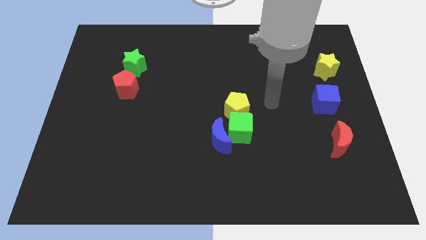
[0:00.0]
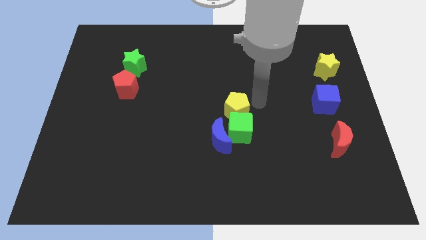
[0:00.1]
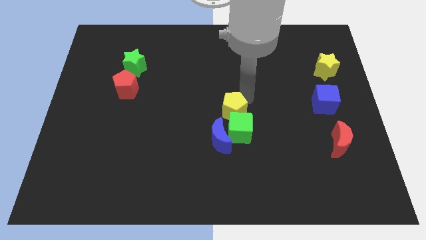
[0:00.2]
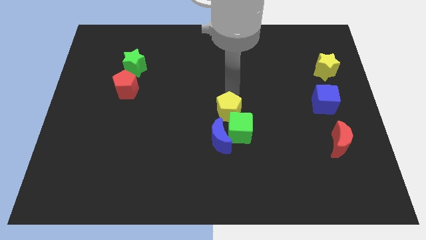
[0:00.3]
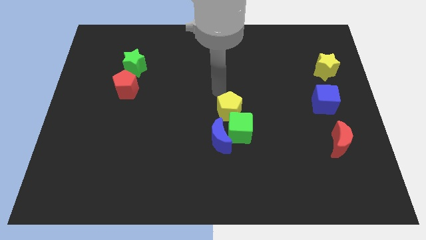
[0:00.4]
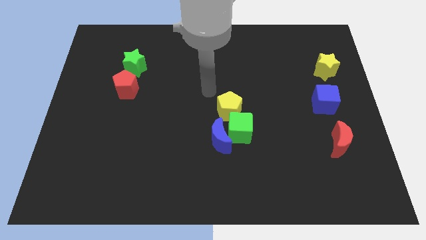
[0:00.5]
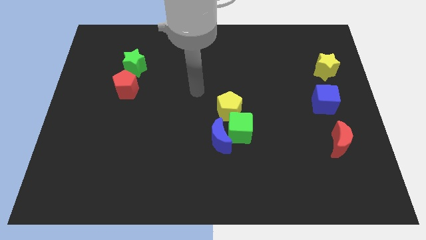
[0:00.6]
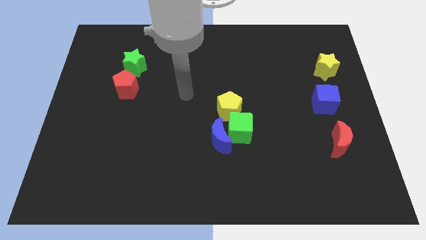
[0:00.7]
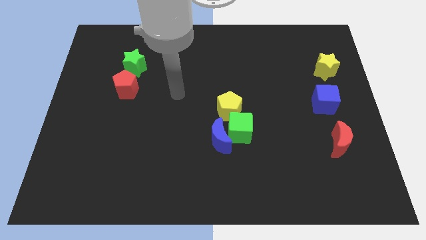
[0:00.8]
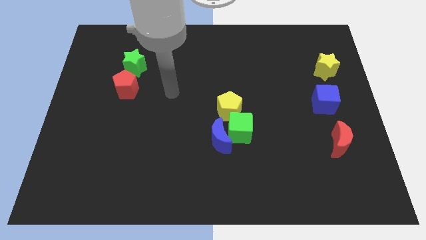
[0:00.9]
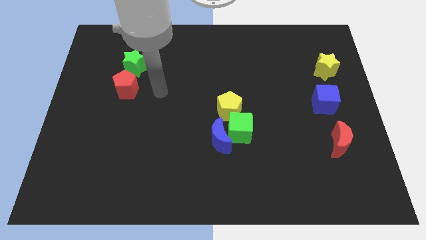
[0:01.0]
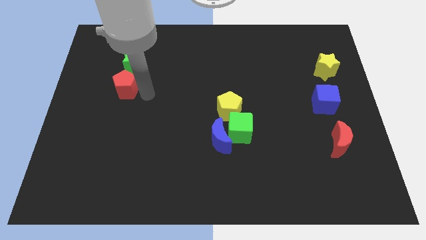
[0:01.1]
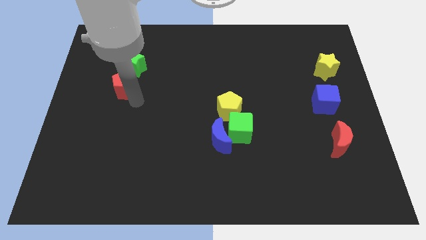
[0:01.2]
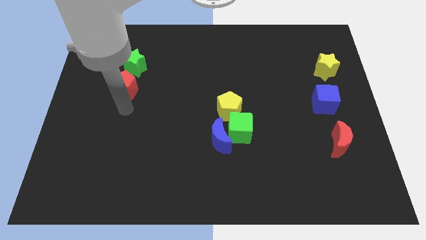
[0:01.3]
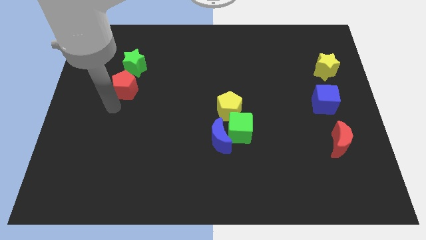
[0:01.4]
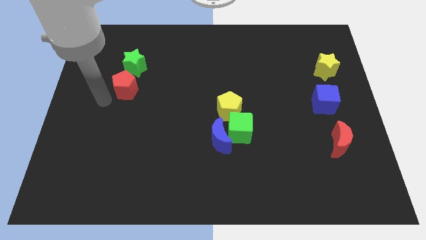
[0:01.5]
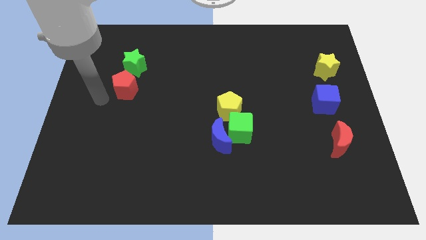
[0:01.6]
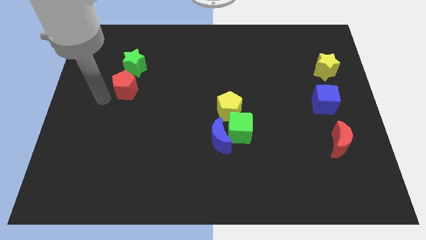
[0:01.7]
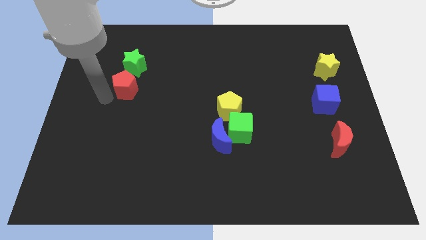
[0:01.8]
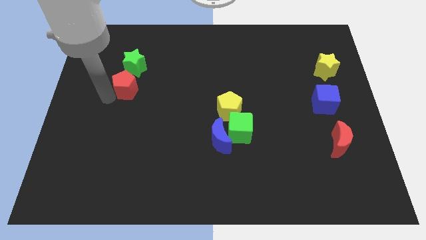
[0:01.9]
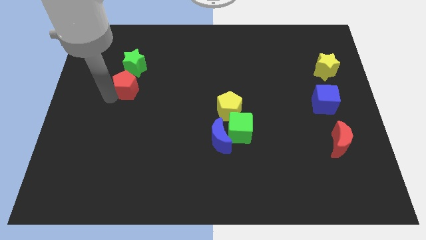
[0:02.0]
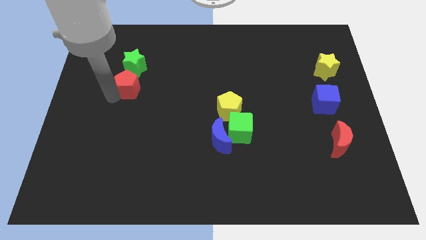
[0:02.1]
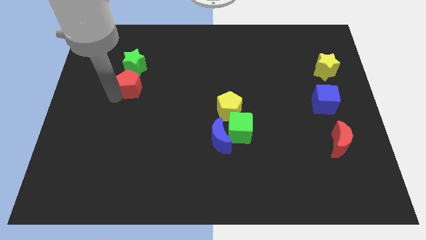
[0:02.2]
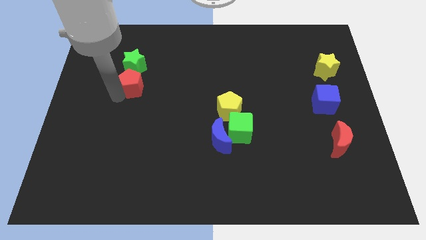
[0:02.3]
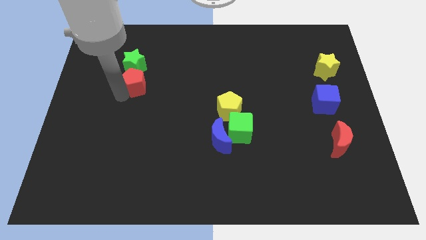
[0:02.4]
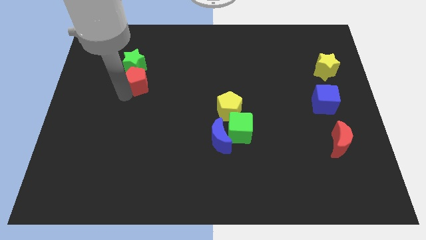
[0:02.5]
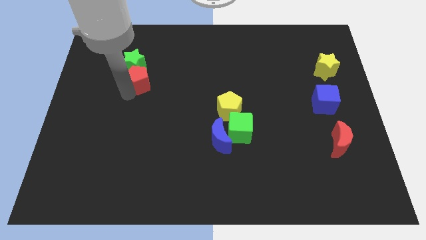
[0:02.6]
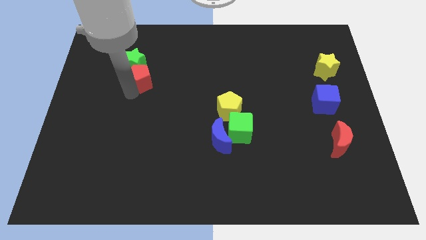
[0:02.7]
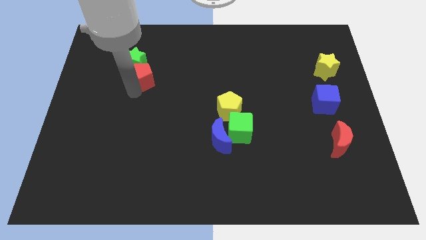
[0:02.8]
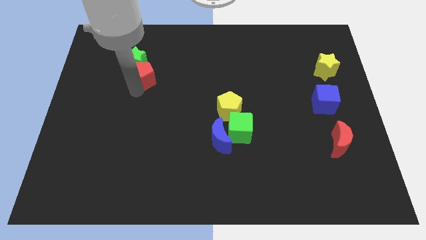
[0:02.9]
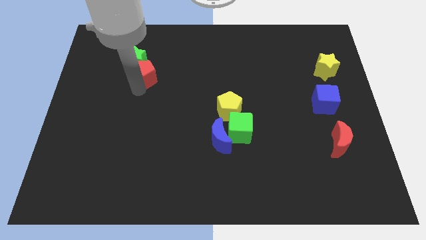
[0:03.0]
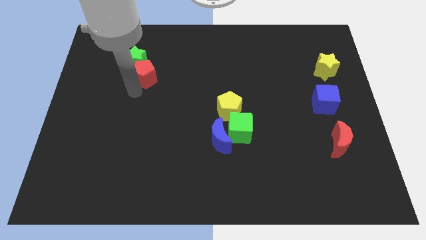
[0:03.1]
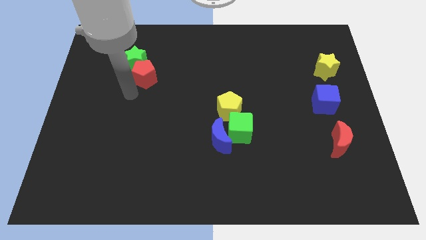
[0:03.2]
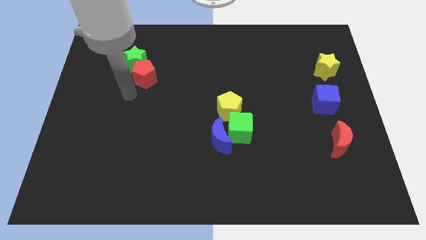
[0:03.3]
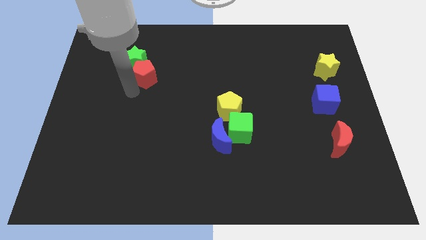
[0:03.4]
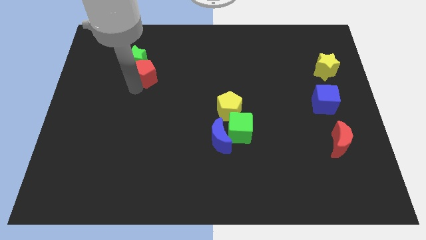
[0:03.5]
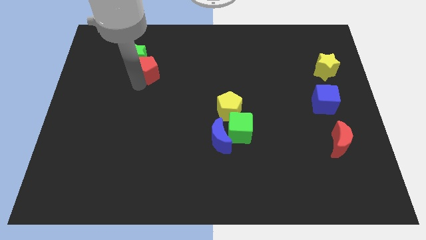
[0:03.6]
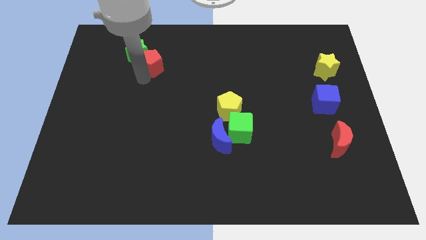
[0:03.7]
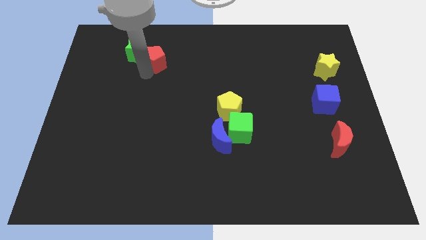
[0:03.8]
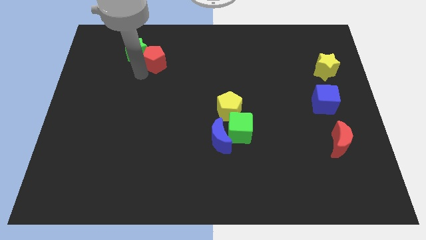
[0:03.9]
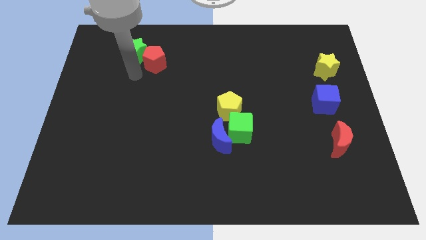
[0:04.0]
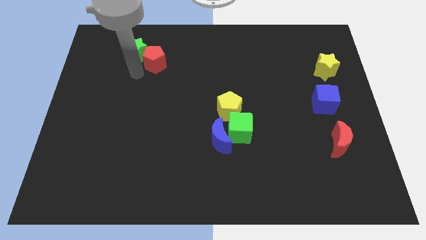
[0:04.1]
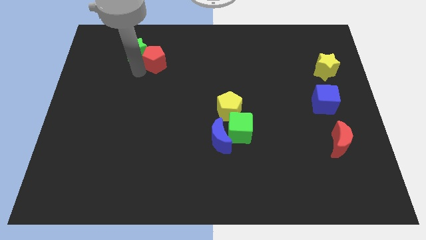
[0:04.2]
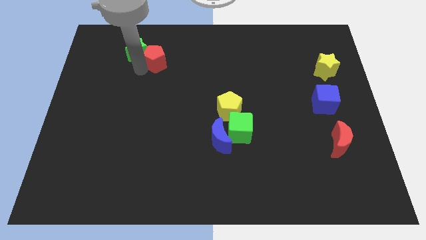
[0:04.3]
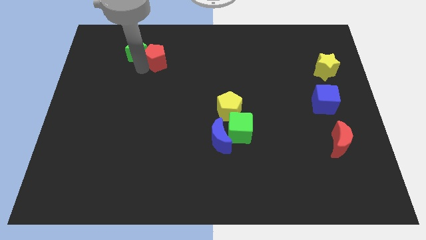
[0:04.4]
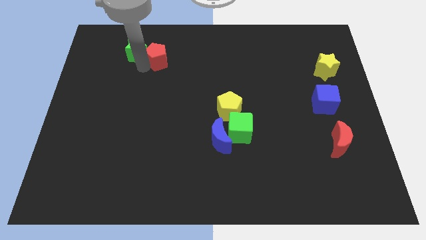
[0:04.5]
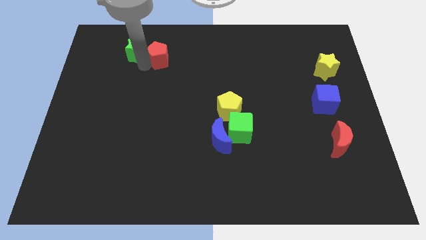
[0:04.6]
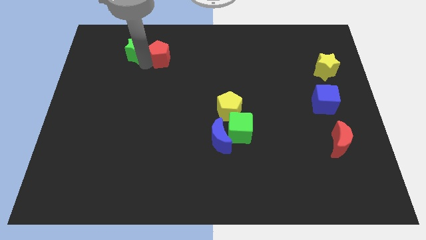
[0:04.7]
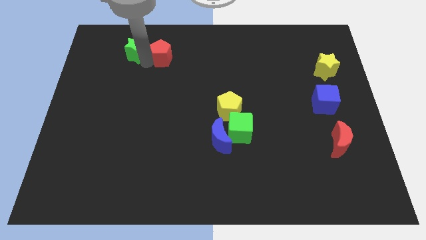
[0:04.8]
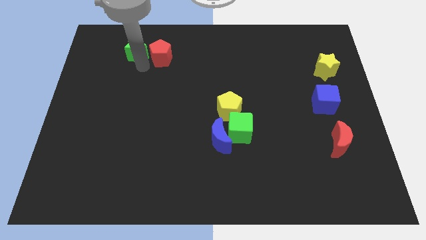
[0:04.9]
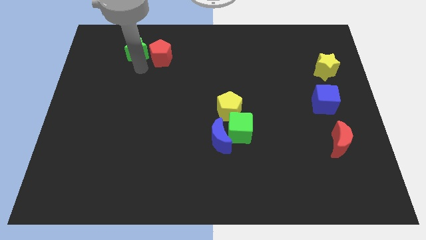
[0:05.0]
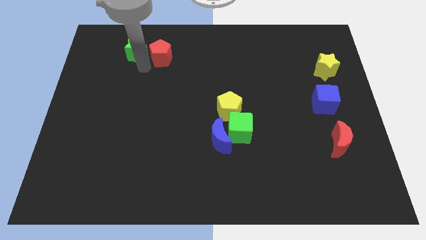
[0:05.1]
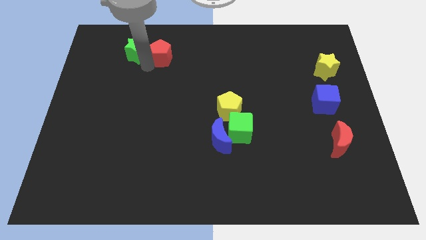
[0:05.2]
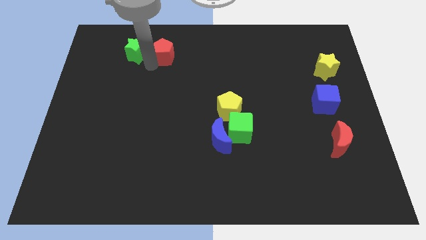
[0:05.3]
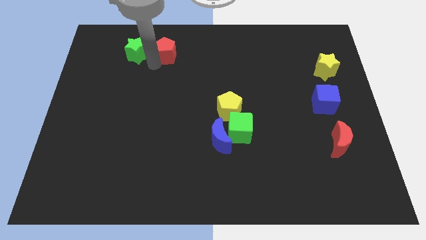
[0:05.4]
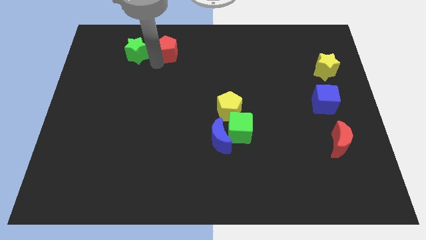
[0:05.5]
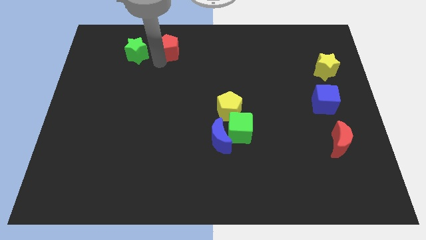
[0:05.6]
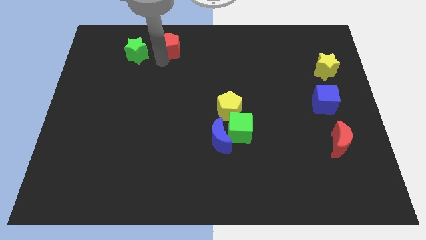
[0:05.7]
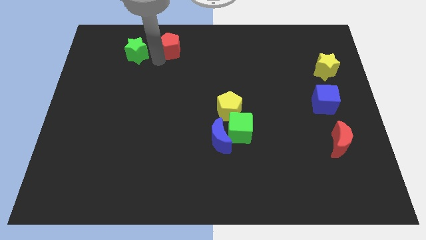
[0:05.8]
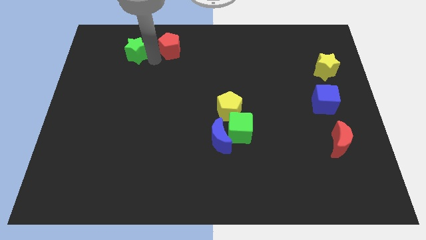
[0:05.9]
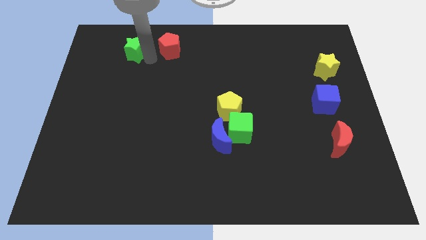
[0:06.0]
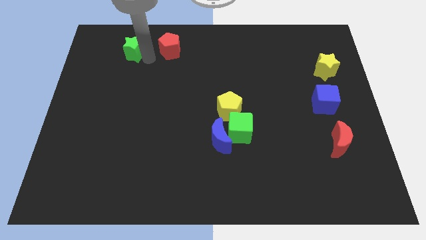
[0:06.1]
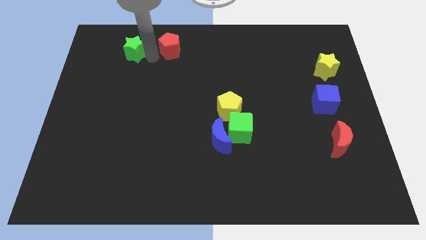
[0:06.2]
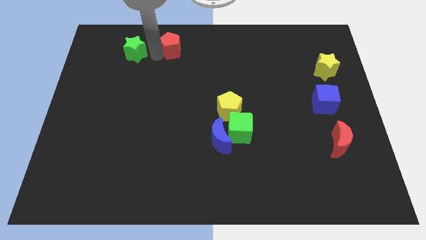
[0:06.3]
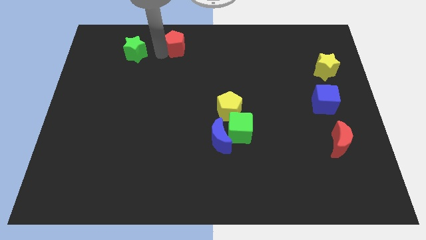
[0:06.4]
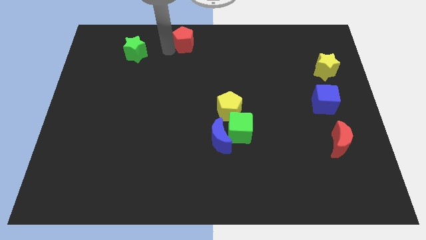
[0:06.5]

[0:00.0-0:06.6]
move the red pentagon to the towards your base

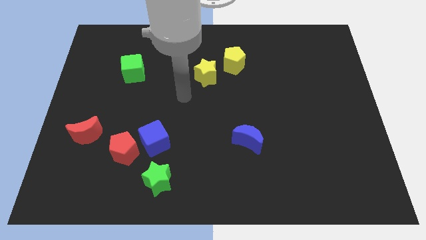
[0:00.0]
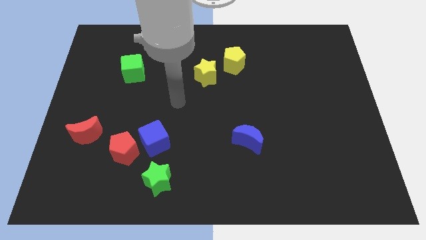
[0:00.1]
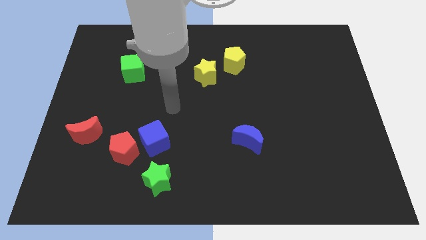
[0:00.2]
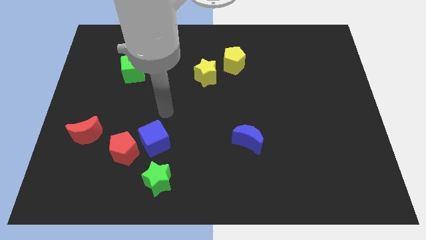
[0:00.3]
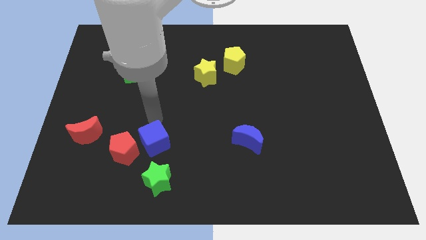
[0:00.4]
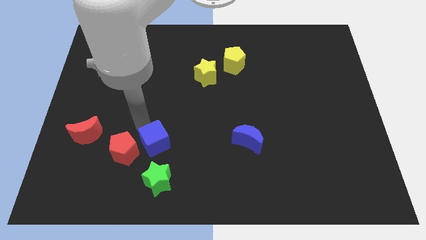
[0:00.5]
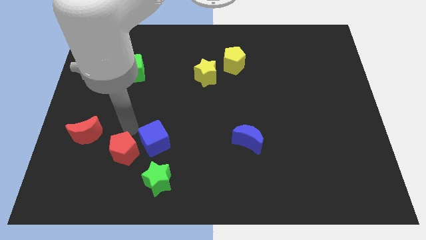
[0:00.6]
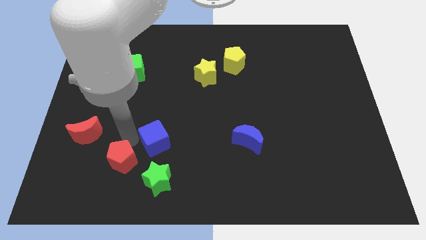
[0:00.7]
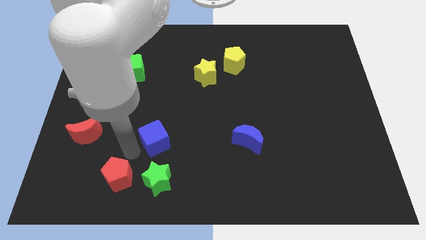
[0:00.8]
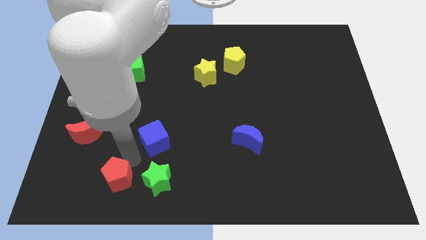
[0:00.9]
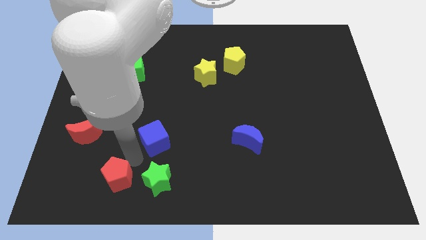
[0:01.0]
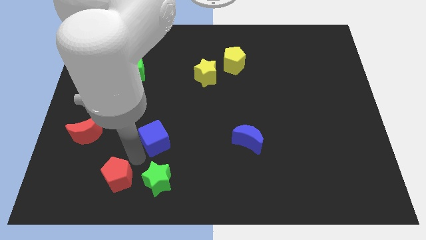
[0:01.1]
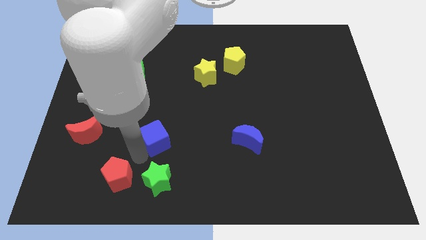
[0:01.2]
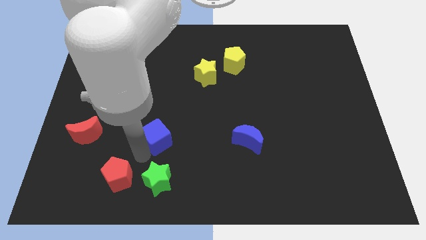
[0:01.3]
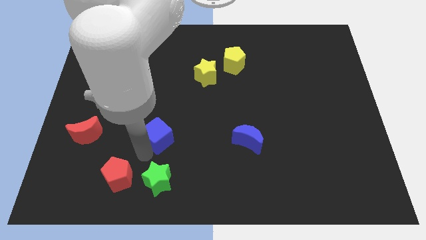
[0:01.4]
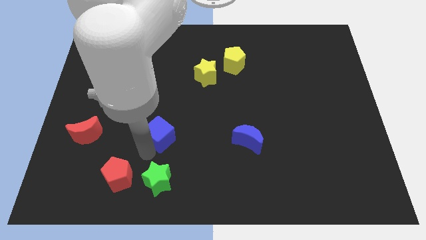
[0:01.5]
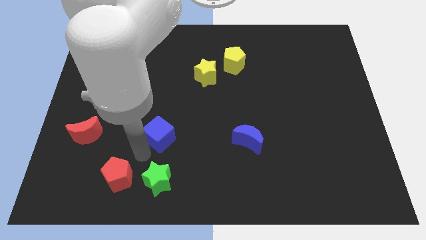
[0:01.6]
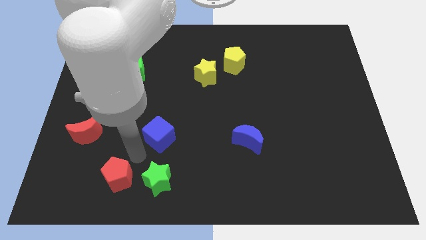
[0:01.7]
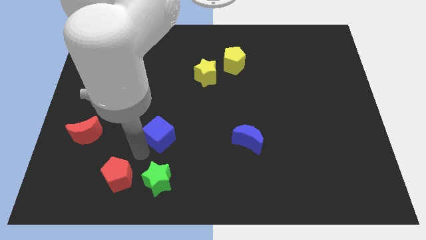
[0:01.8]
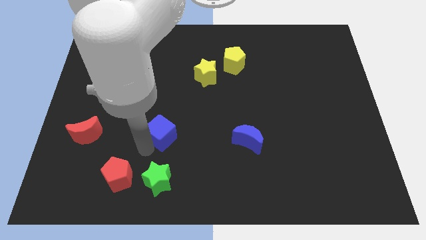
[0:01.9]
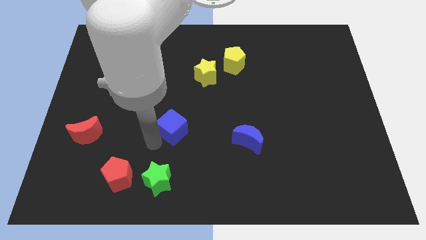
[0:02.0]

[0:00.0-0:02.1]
put the blue cube to the center
